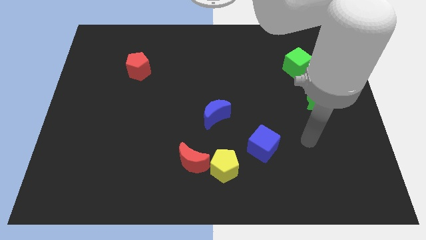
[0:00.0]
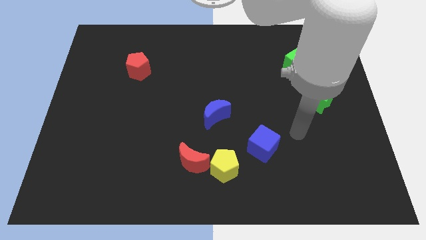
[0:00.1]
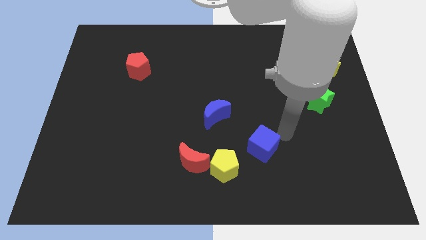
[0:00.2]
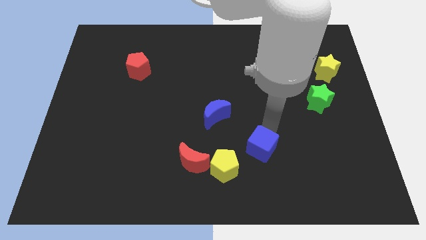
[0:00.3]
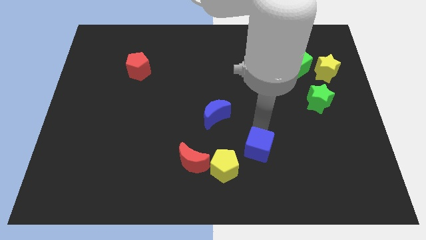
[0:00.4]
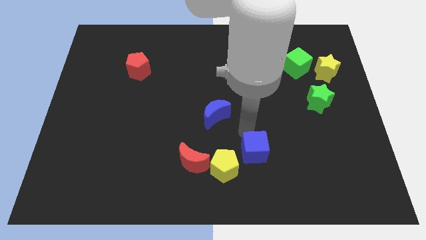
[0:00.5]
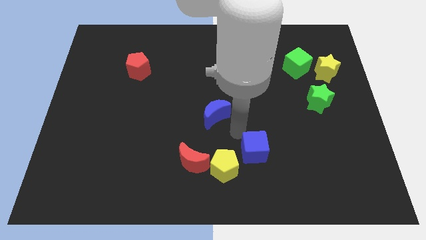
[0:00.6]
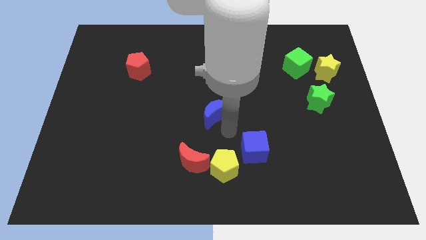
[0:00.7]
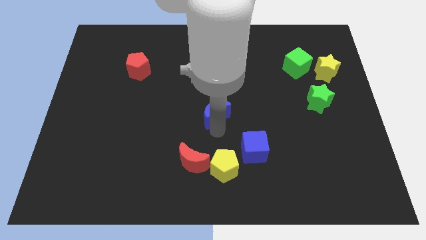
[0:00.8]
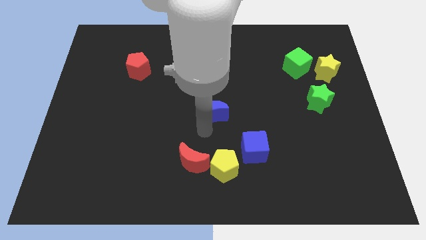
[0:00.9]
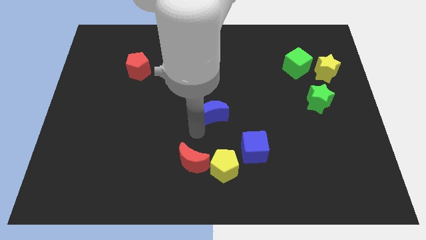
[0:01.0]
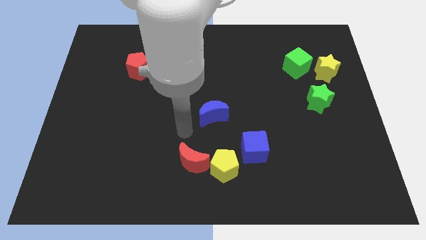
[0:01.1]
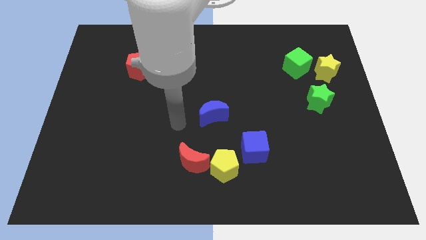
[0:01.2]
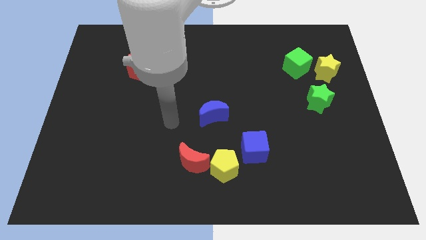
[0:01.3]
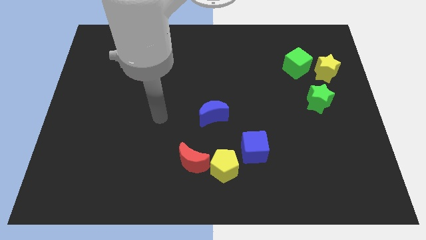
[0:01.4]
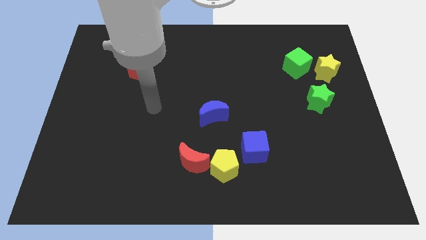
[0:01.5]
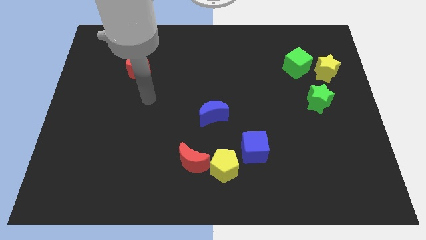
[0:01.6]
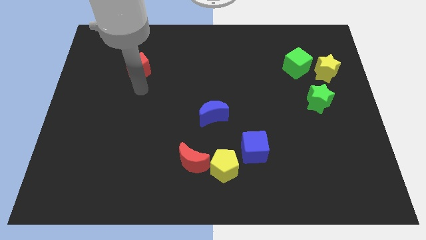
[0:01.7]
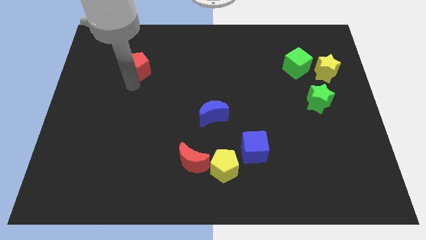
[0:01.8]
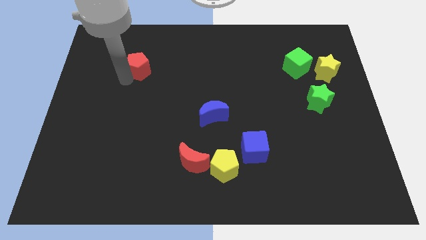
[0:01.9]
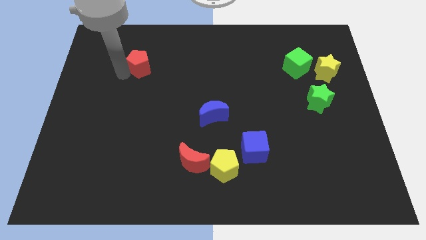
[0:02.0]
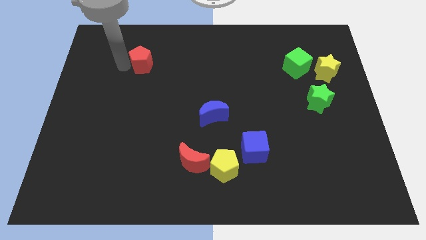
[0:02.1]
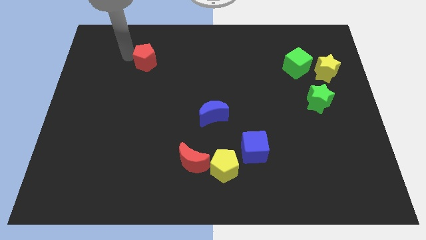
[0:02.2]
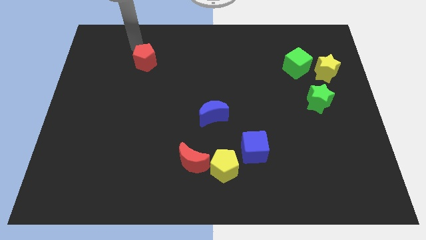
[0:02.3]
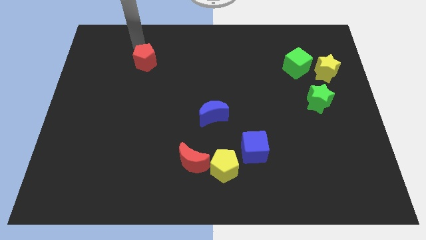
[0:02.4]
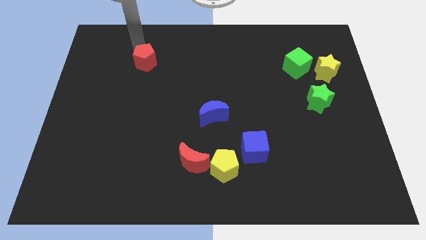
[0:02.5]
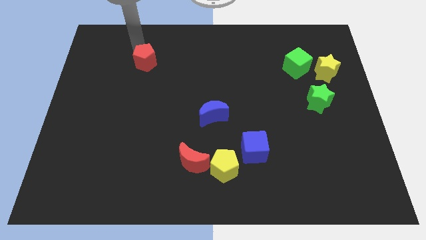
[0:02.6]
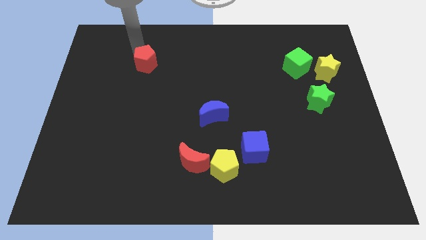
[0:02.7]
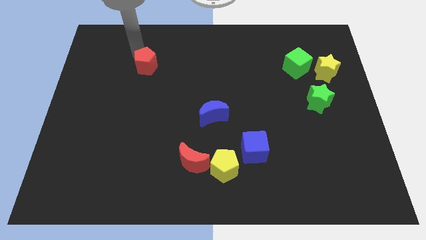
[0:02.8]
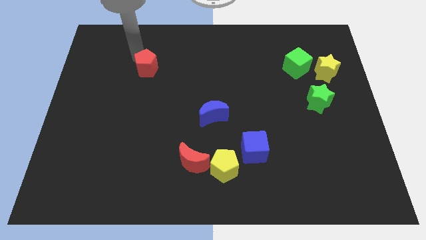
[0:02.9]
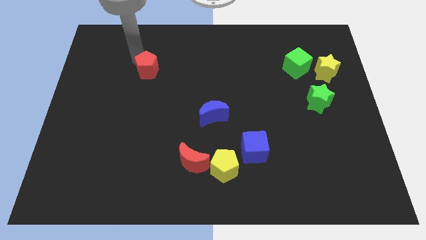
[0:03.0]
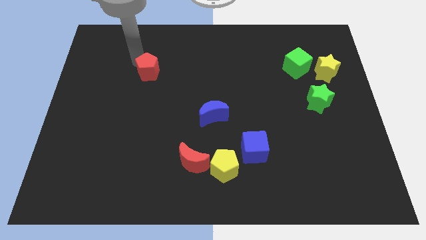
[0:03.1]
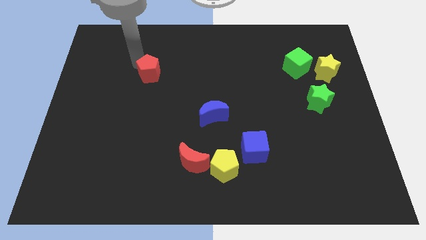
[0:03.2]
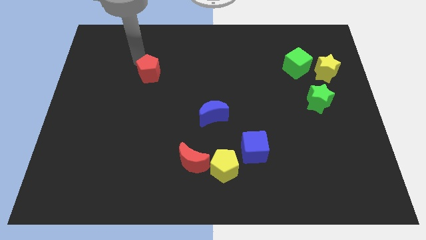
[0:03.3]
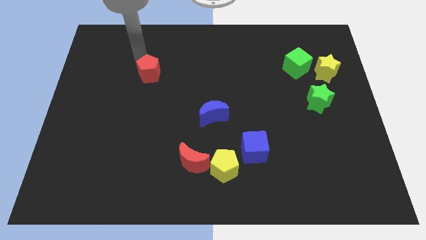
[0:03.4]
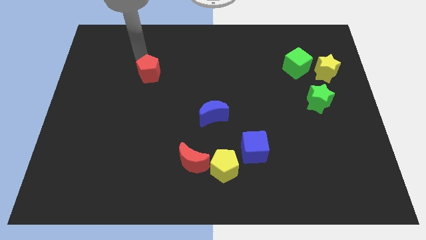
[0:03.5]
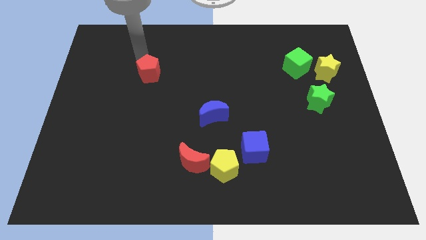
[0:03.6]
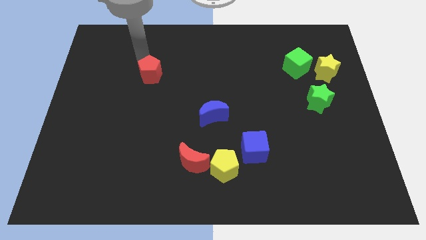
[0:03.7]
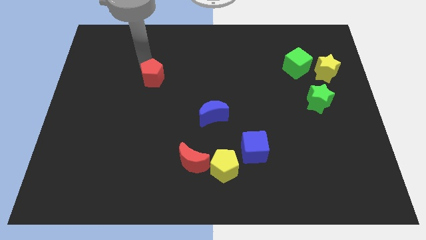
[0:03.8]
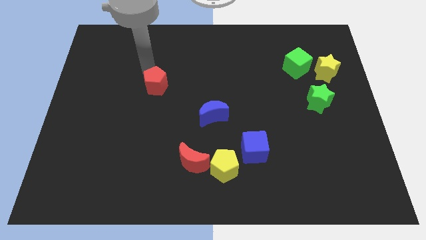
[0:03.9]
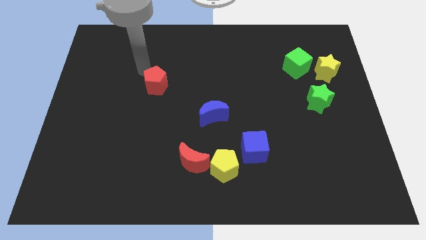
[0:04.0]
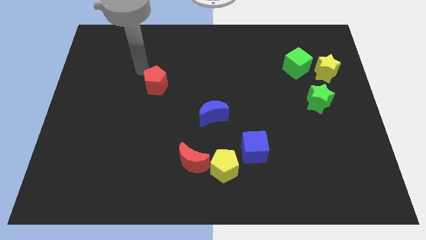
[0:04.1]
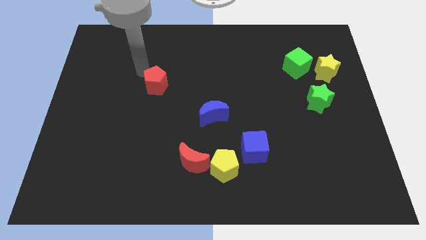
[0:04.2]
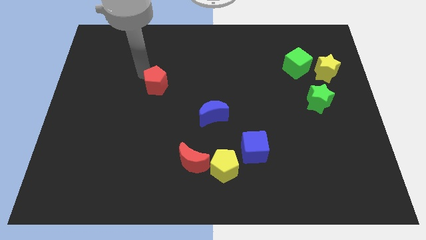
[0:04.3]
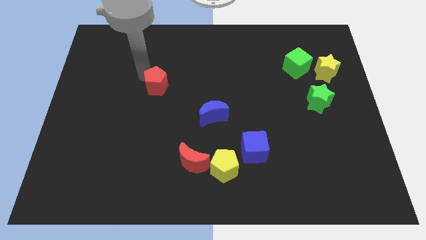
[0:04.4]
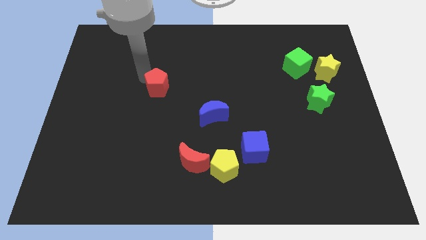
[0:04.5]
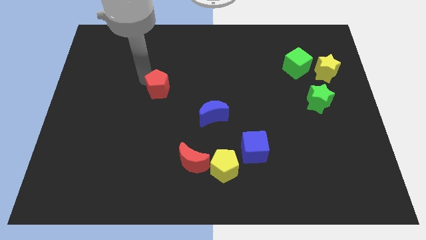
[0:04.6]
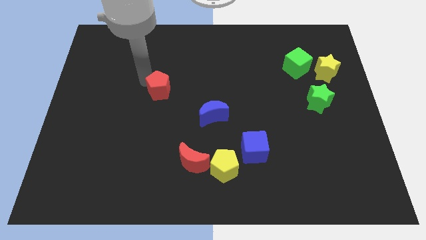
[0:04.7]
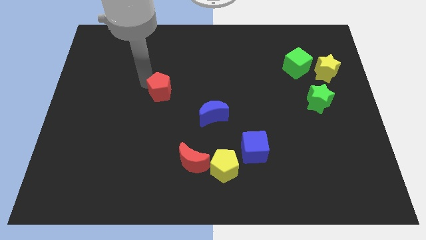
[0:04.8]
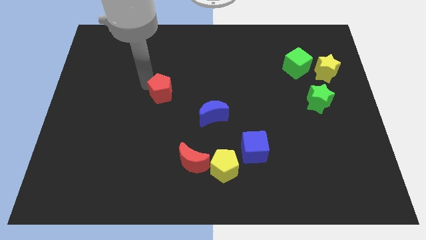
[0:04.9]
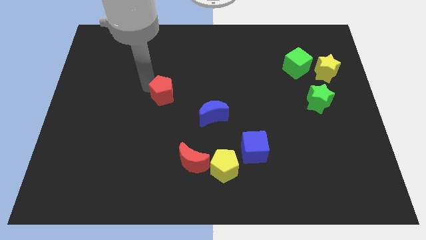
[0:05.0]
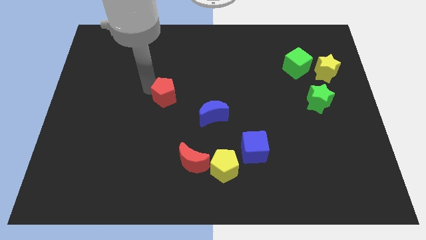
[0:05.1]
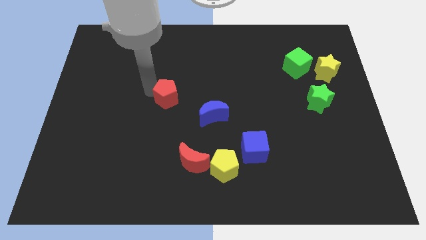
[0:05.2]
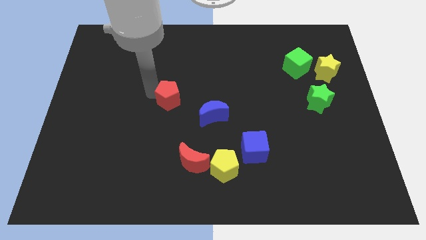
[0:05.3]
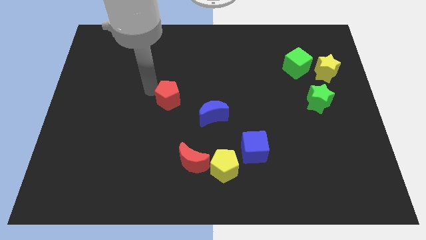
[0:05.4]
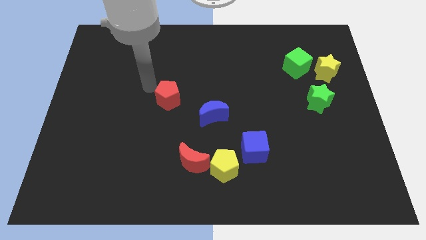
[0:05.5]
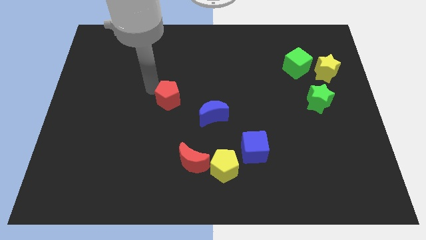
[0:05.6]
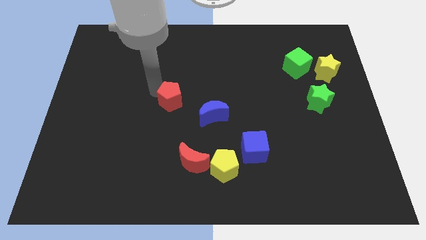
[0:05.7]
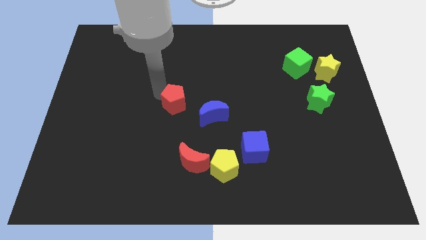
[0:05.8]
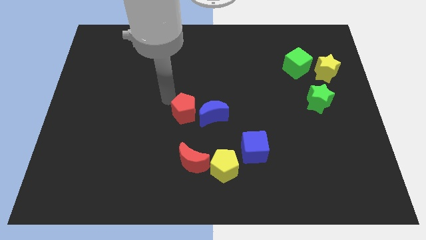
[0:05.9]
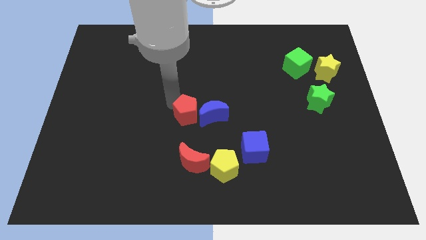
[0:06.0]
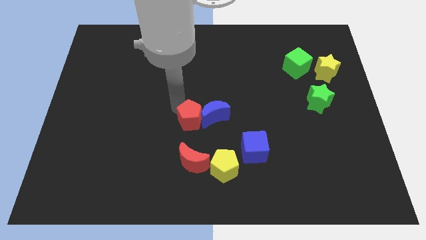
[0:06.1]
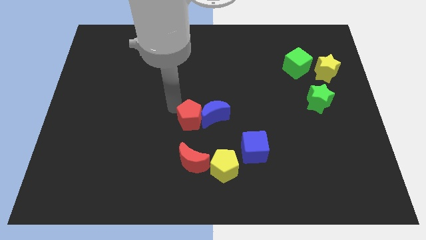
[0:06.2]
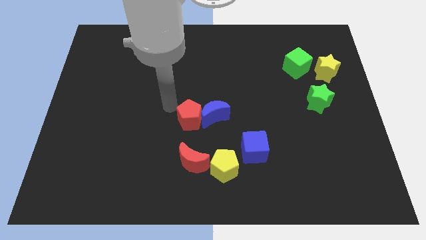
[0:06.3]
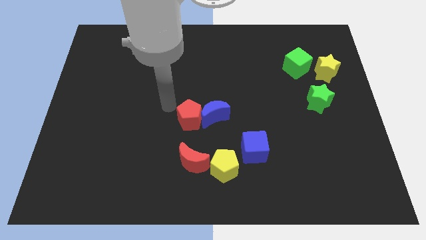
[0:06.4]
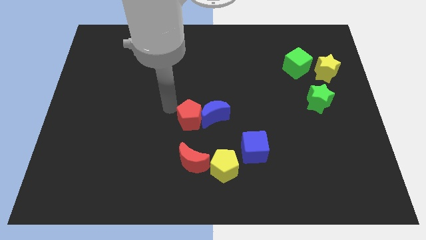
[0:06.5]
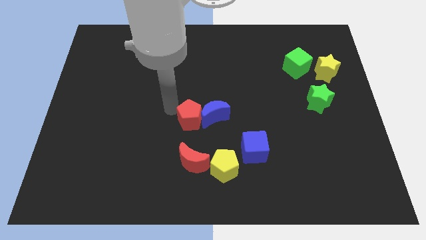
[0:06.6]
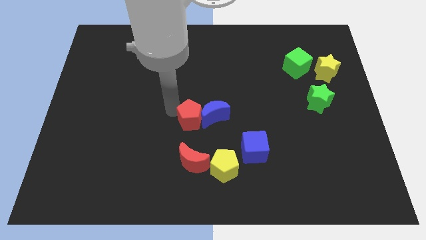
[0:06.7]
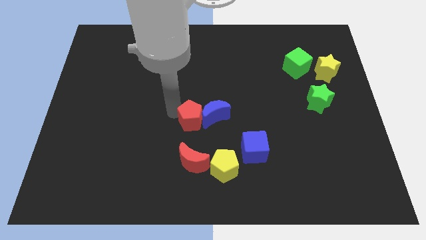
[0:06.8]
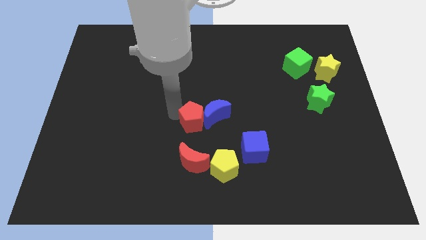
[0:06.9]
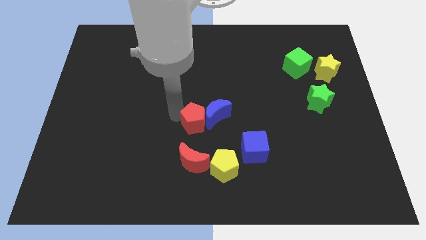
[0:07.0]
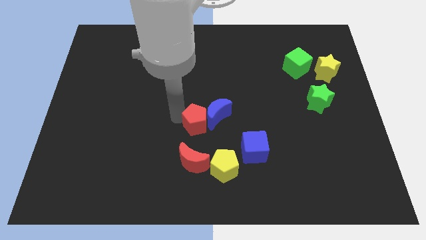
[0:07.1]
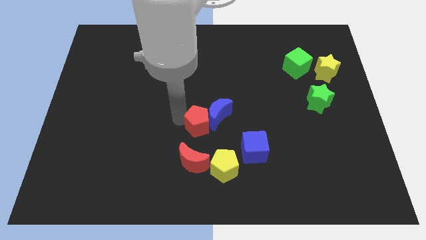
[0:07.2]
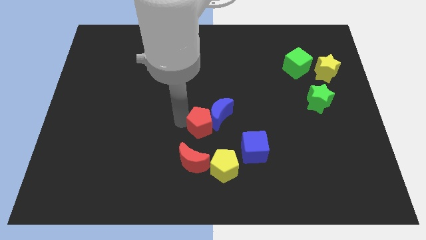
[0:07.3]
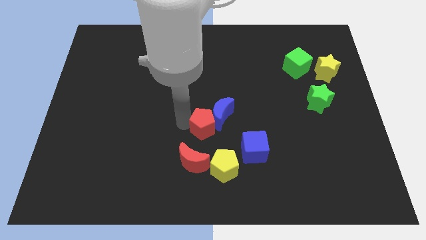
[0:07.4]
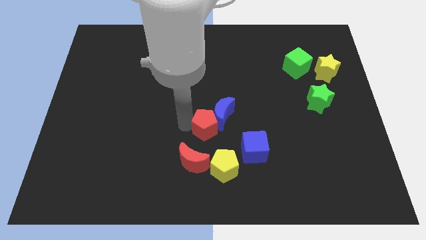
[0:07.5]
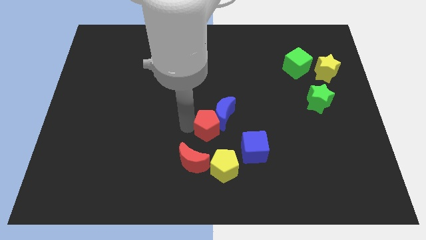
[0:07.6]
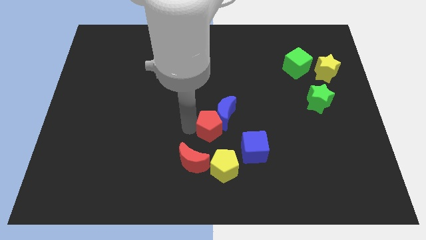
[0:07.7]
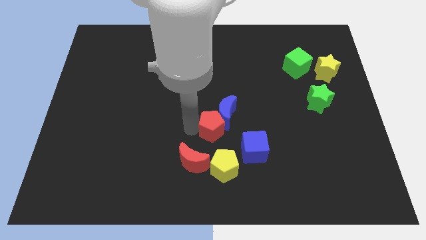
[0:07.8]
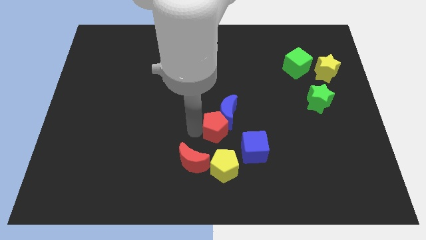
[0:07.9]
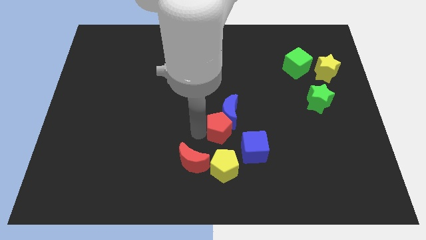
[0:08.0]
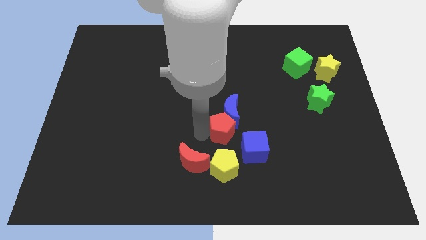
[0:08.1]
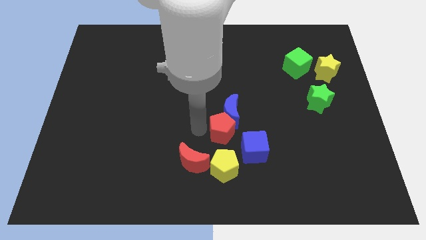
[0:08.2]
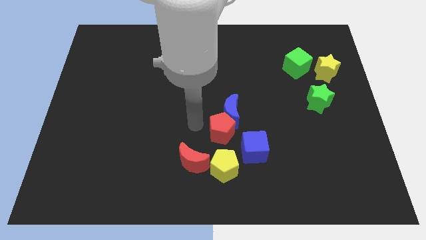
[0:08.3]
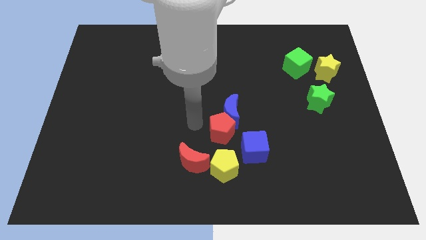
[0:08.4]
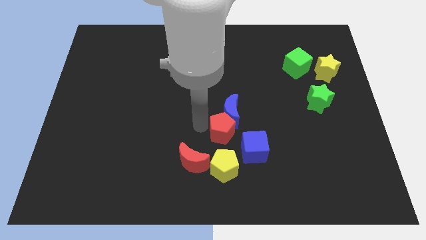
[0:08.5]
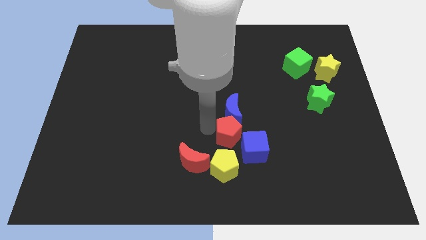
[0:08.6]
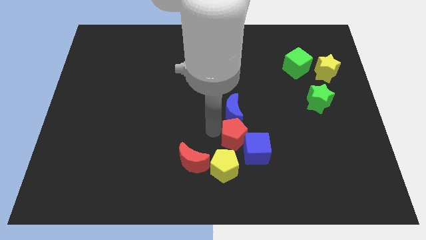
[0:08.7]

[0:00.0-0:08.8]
move the red pentagon close to the blue cube
